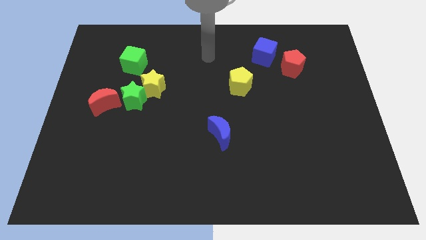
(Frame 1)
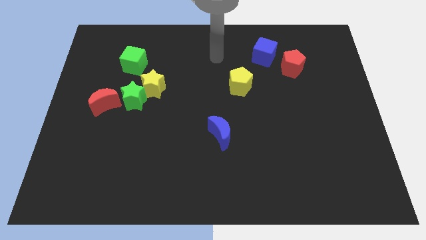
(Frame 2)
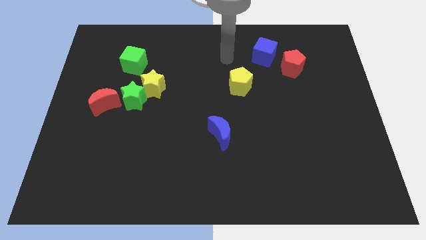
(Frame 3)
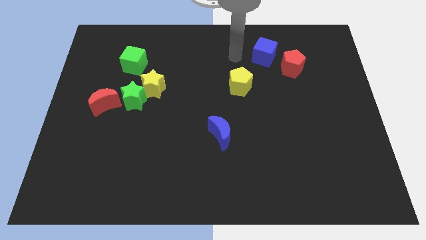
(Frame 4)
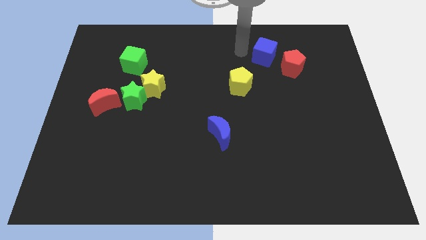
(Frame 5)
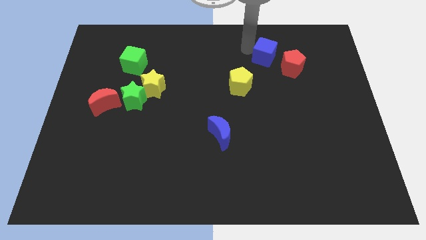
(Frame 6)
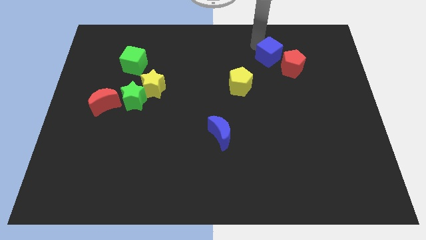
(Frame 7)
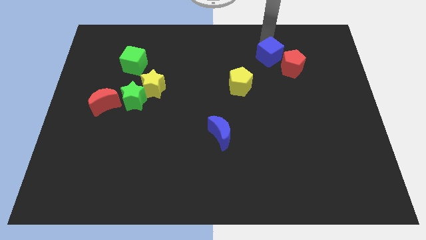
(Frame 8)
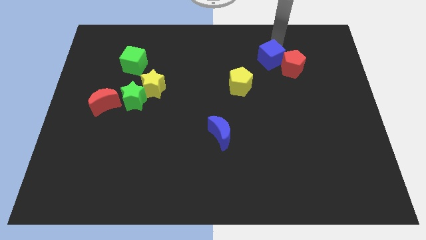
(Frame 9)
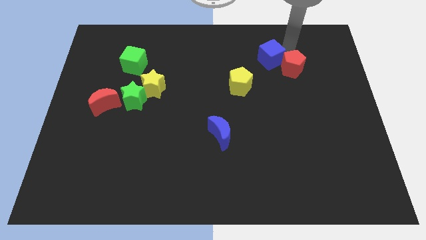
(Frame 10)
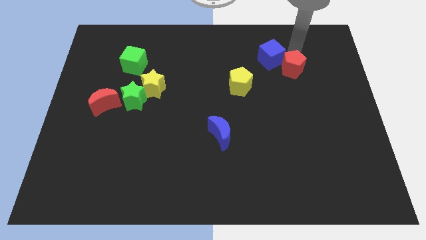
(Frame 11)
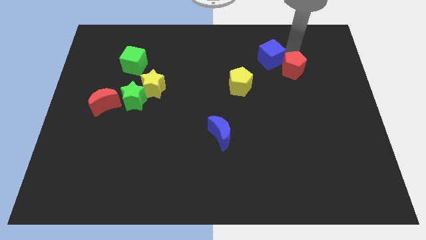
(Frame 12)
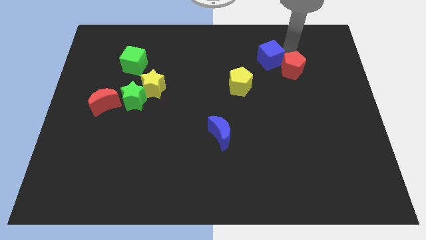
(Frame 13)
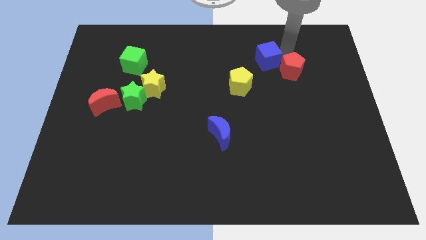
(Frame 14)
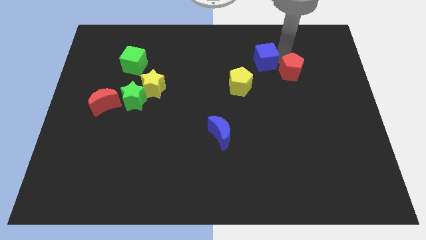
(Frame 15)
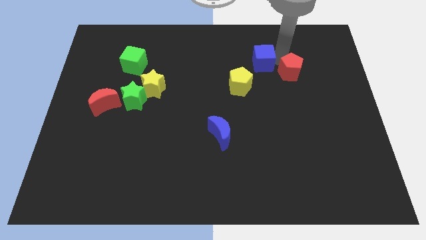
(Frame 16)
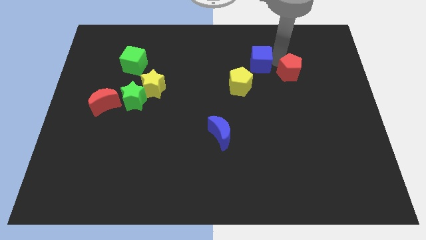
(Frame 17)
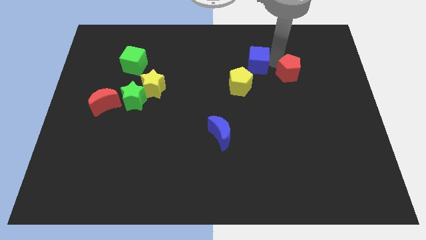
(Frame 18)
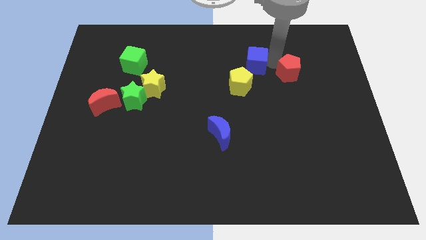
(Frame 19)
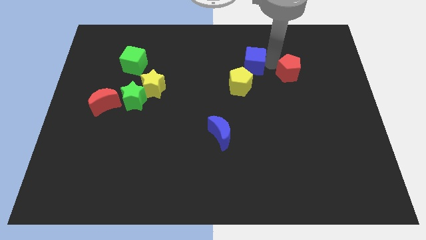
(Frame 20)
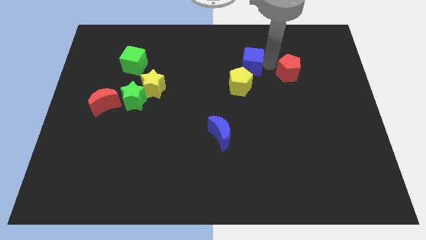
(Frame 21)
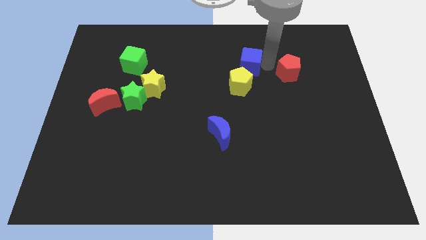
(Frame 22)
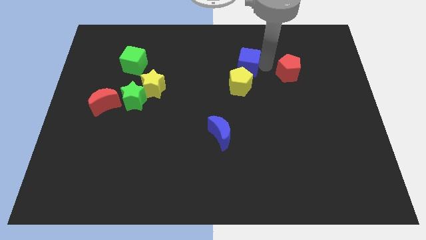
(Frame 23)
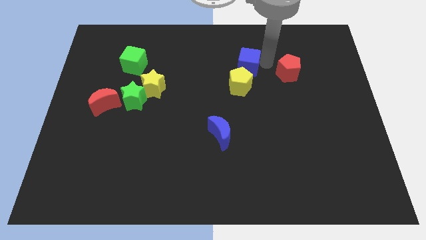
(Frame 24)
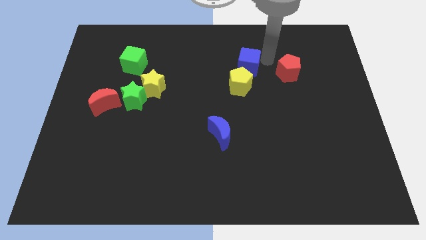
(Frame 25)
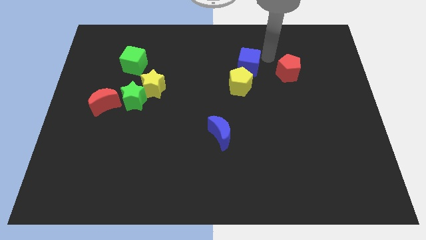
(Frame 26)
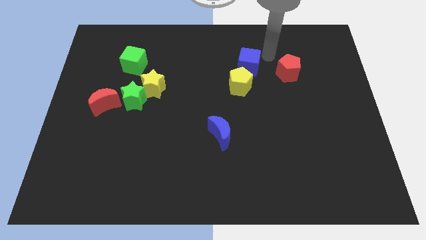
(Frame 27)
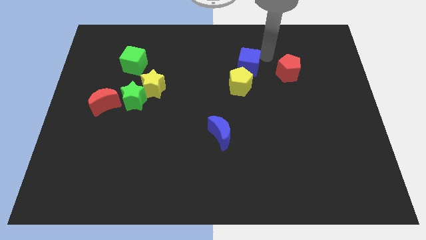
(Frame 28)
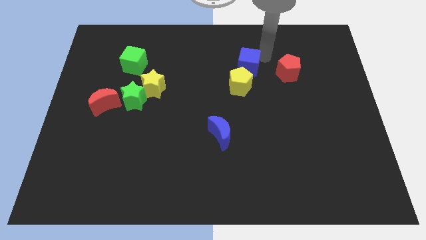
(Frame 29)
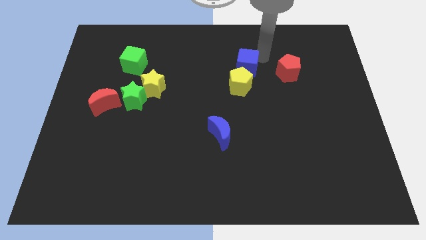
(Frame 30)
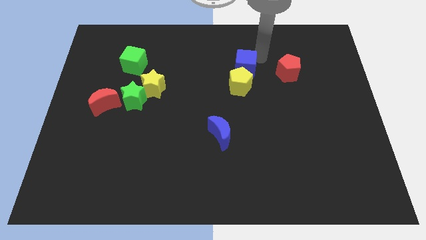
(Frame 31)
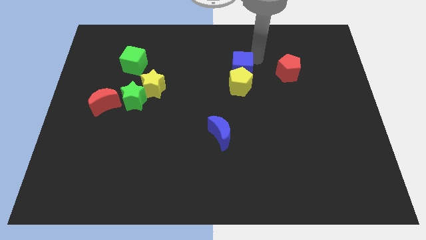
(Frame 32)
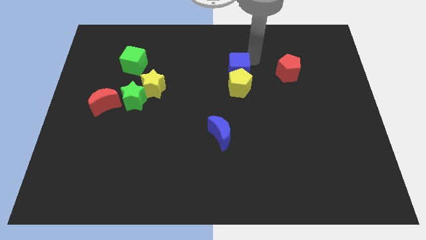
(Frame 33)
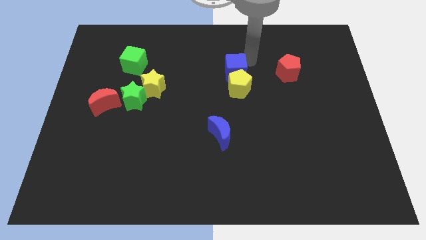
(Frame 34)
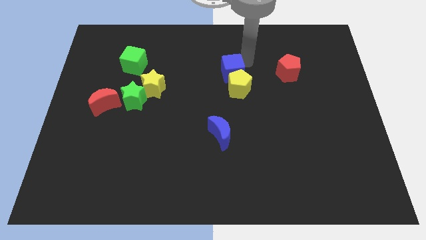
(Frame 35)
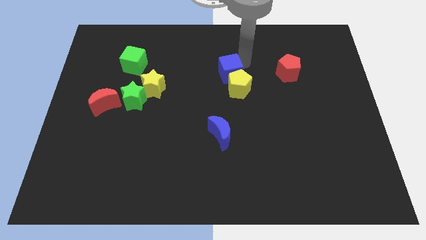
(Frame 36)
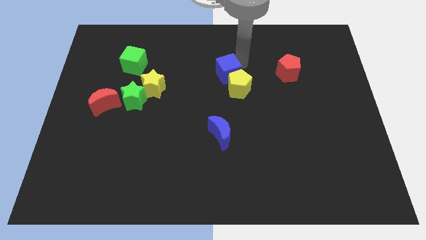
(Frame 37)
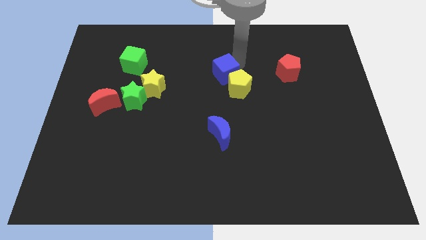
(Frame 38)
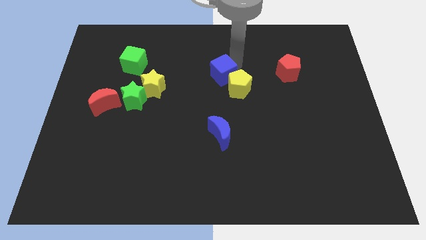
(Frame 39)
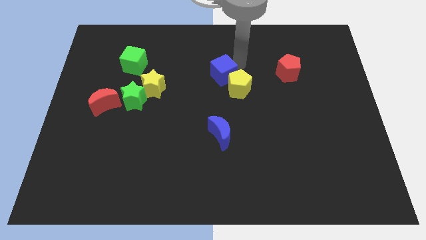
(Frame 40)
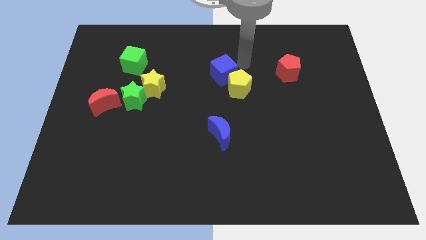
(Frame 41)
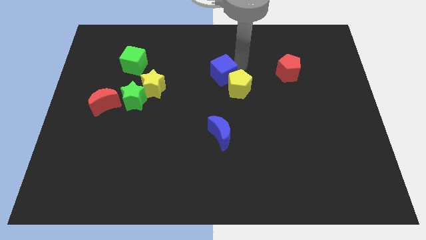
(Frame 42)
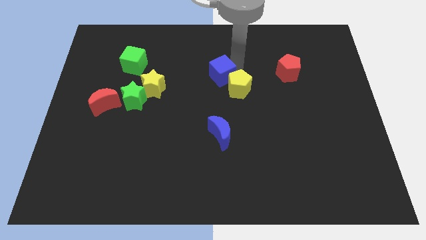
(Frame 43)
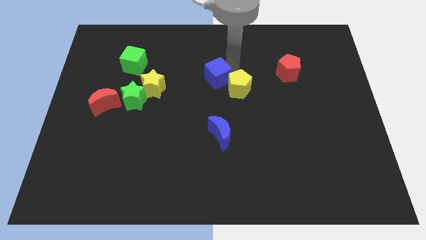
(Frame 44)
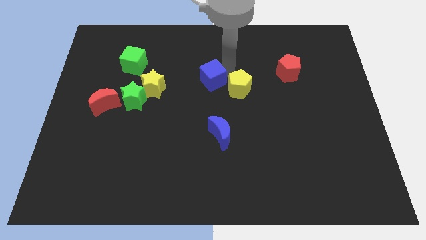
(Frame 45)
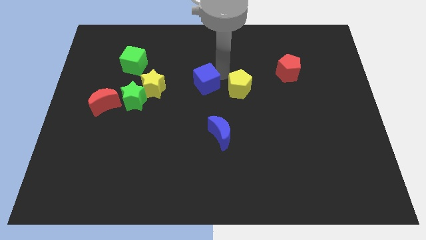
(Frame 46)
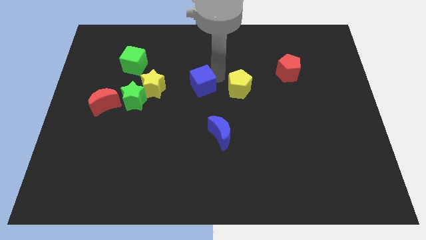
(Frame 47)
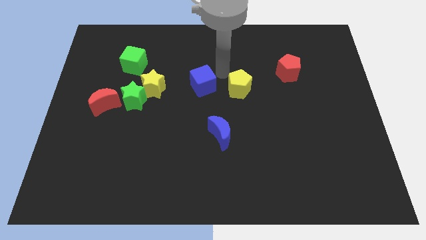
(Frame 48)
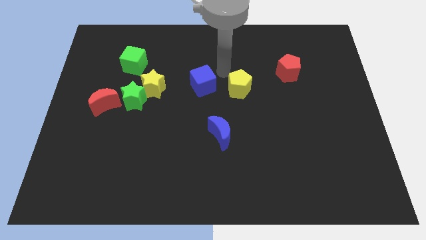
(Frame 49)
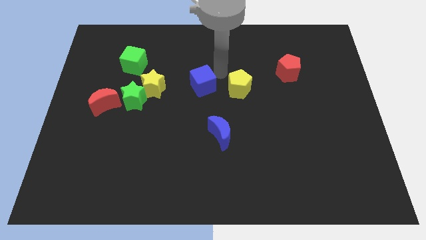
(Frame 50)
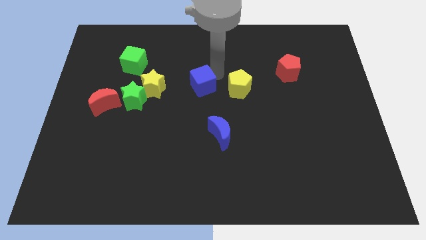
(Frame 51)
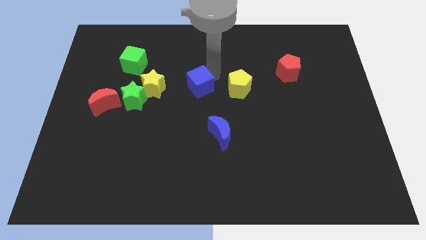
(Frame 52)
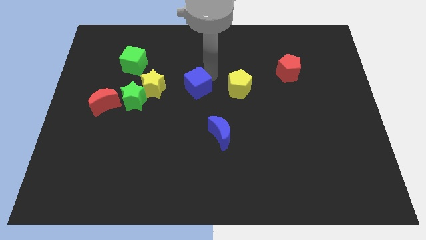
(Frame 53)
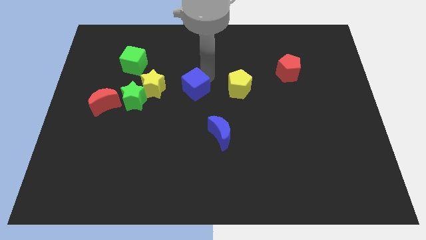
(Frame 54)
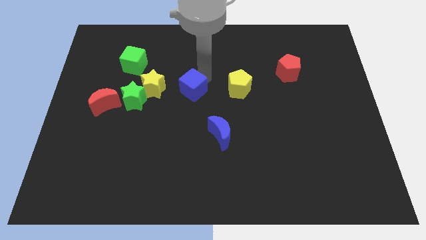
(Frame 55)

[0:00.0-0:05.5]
slide the blue cube right of the green star

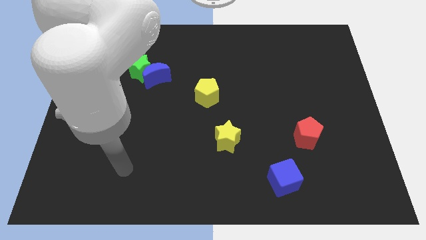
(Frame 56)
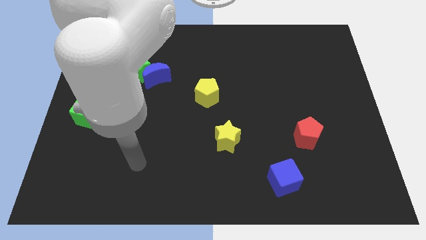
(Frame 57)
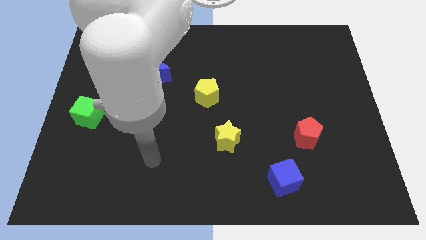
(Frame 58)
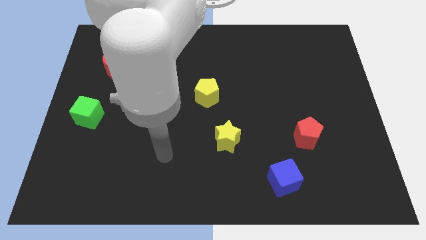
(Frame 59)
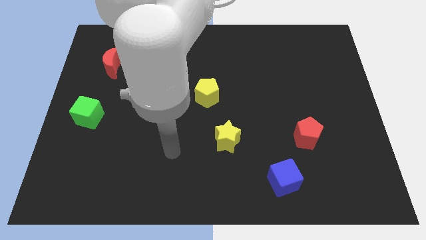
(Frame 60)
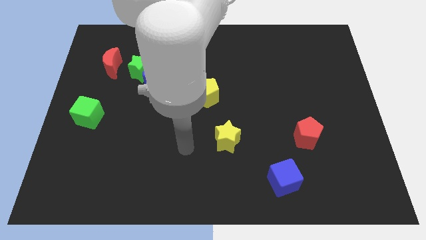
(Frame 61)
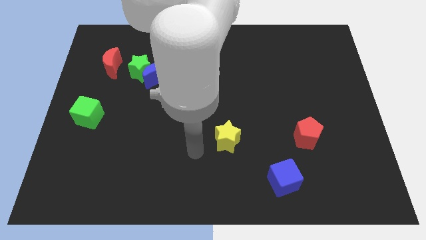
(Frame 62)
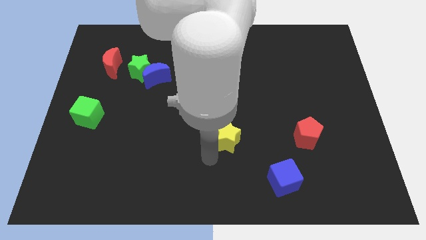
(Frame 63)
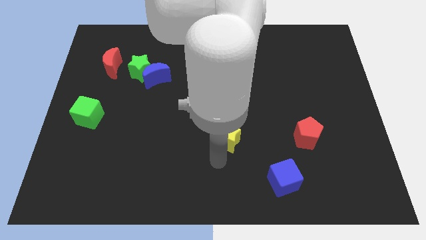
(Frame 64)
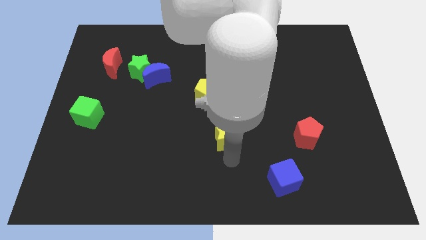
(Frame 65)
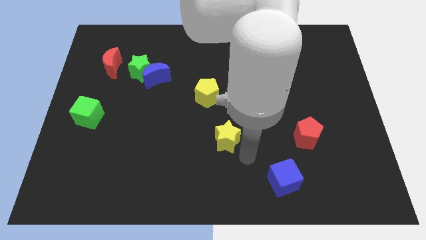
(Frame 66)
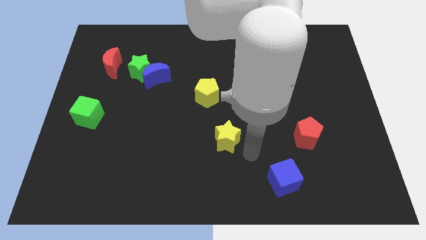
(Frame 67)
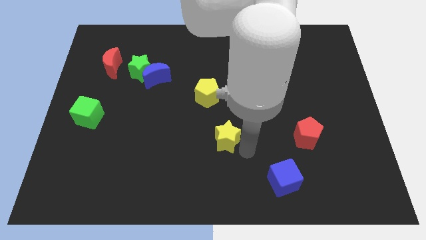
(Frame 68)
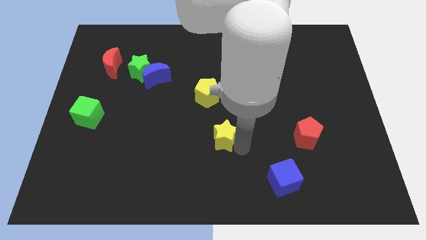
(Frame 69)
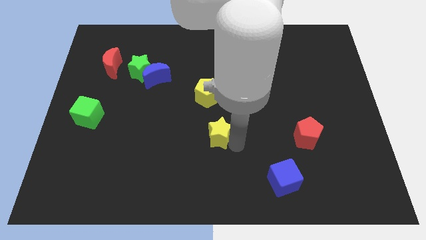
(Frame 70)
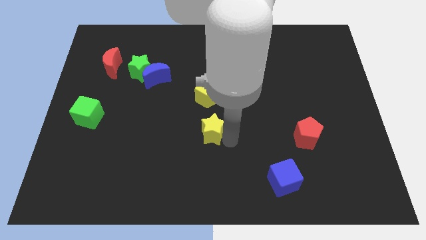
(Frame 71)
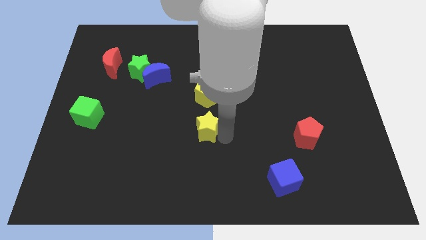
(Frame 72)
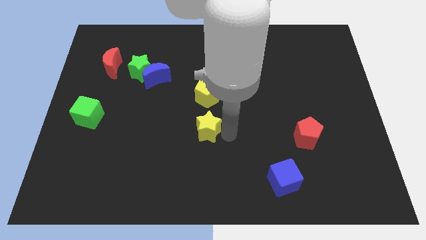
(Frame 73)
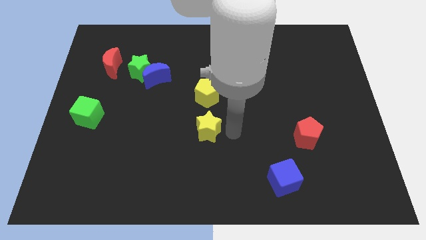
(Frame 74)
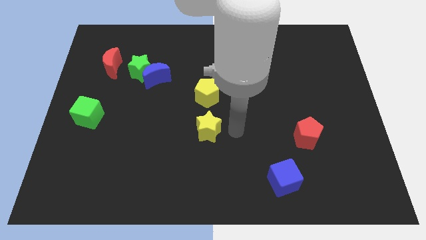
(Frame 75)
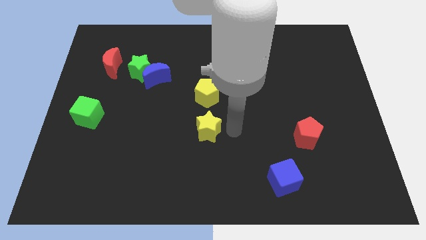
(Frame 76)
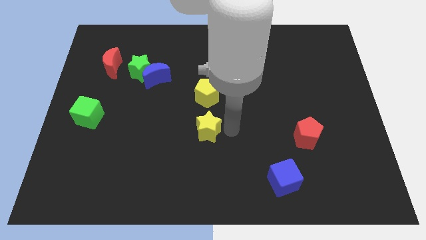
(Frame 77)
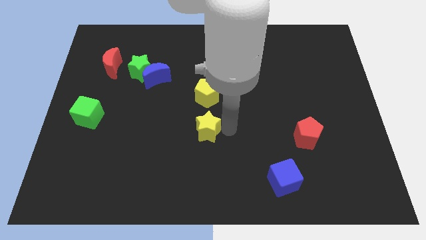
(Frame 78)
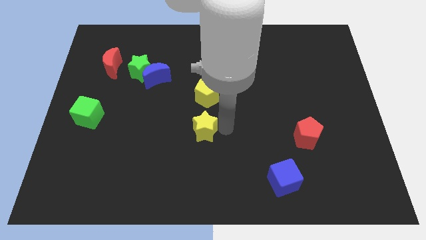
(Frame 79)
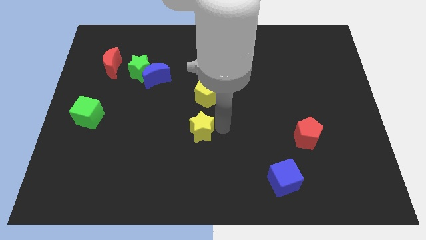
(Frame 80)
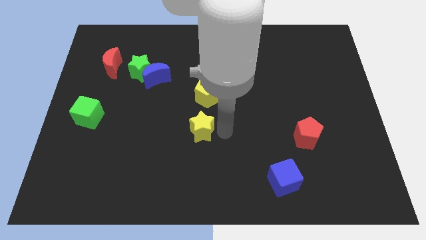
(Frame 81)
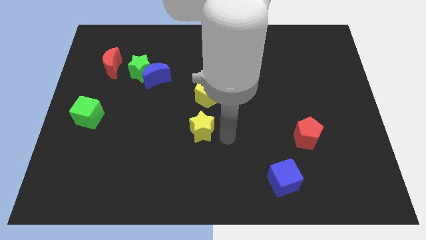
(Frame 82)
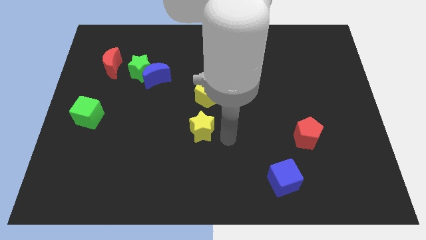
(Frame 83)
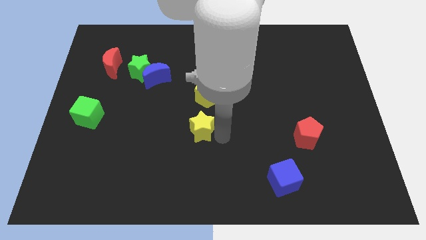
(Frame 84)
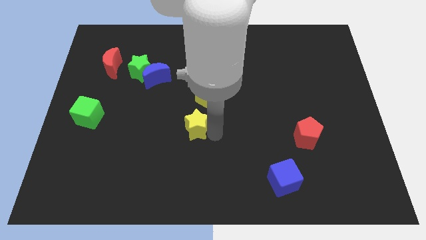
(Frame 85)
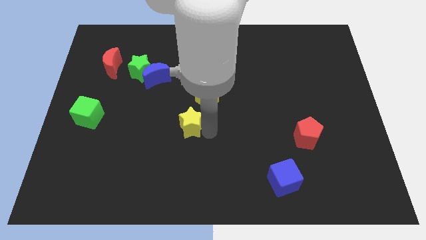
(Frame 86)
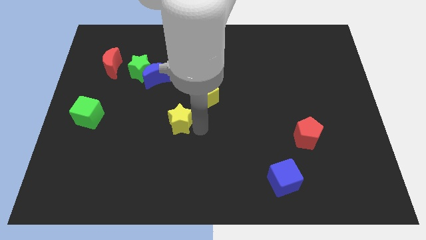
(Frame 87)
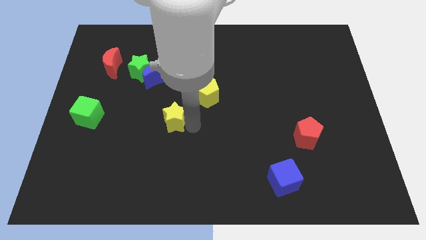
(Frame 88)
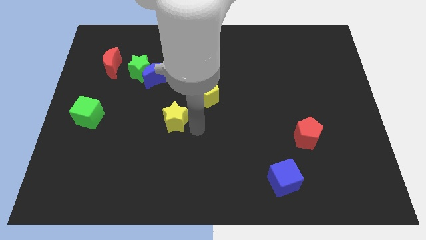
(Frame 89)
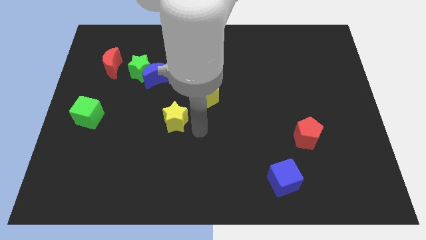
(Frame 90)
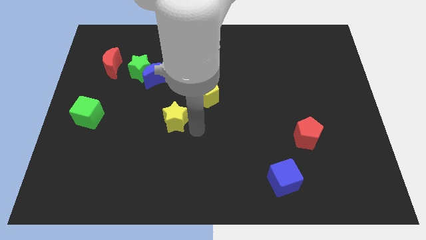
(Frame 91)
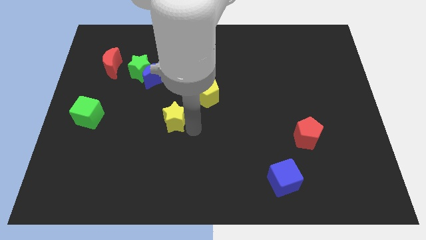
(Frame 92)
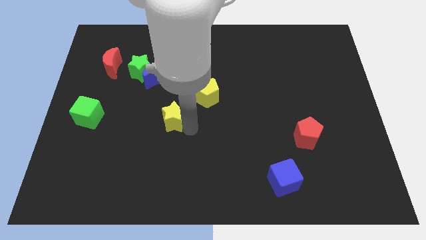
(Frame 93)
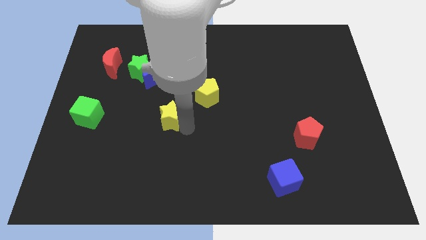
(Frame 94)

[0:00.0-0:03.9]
push the yellow star to the bottom side of the blue moon
